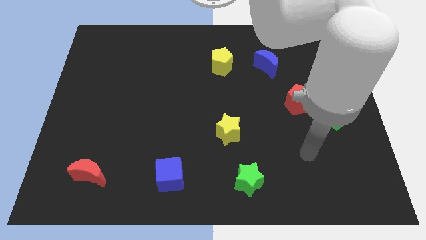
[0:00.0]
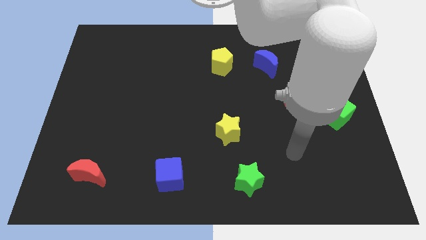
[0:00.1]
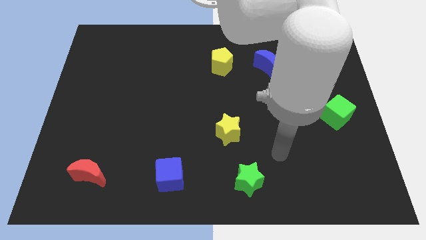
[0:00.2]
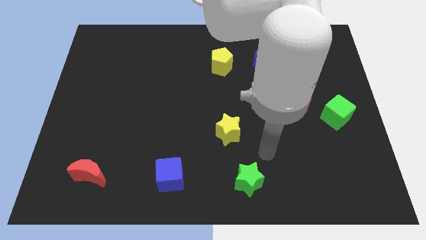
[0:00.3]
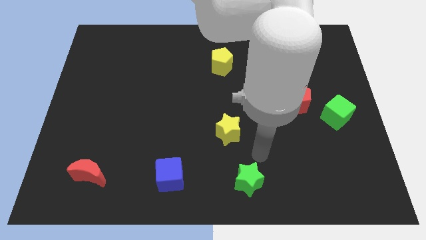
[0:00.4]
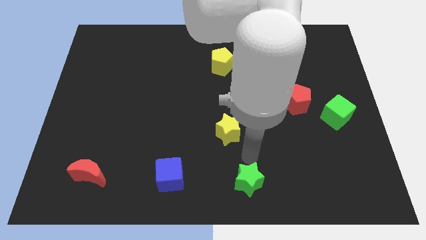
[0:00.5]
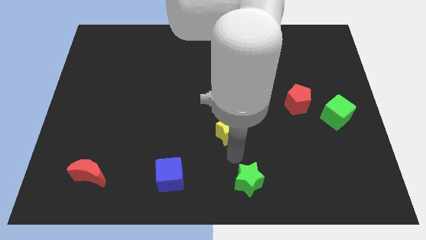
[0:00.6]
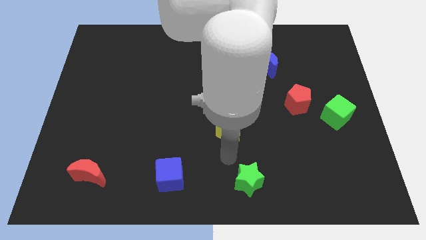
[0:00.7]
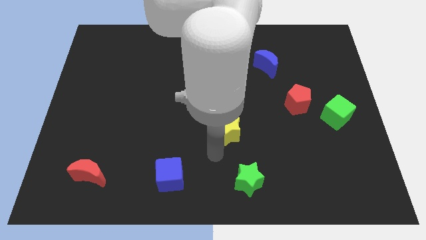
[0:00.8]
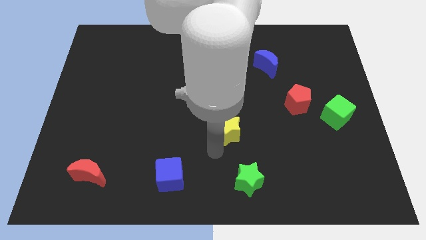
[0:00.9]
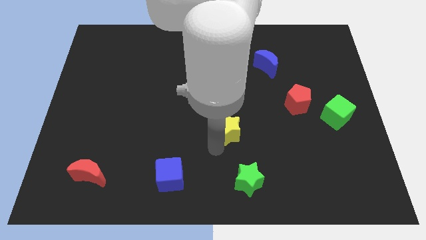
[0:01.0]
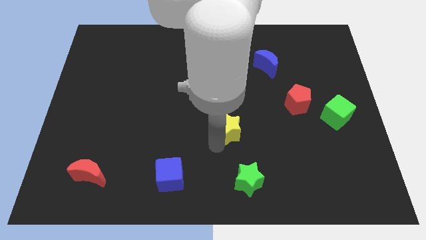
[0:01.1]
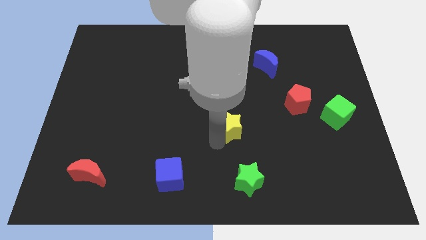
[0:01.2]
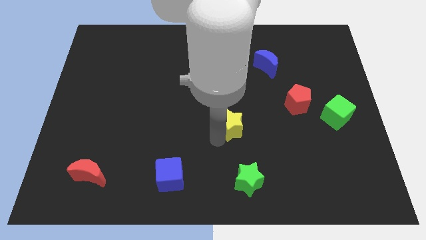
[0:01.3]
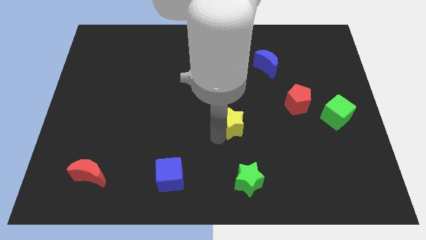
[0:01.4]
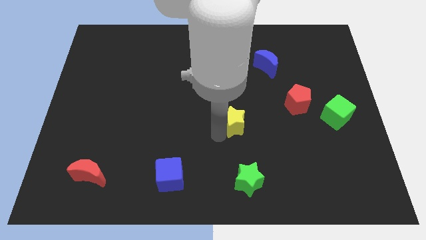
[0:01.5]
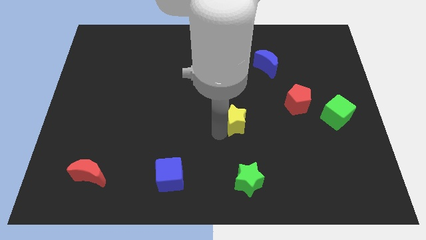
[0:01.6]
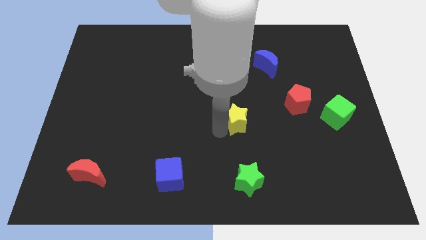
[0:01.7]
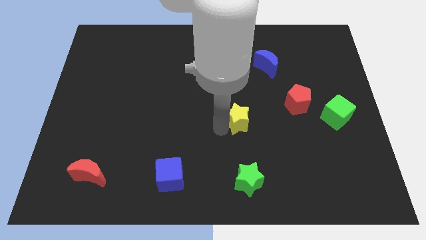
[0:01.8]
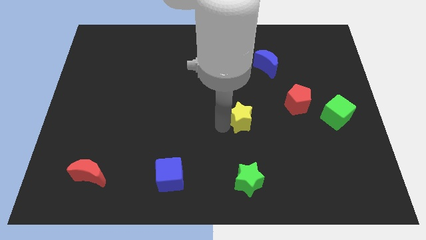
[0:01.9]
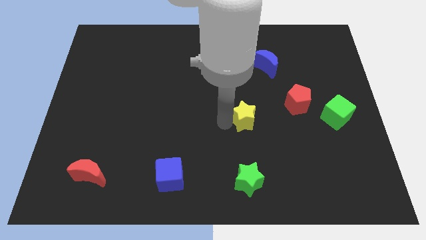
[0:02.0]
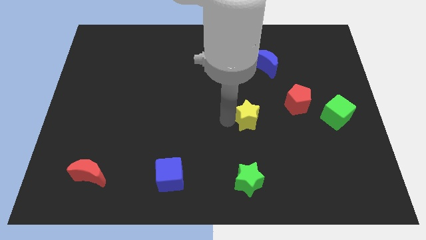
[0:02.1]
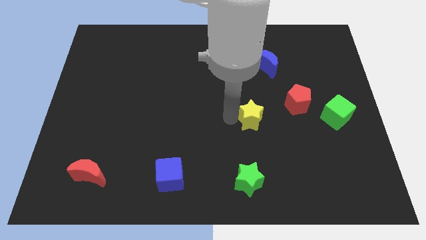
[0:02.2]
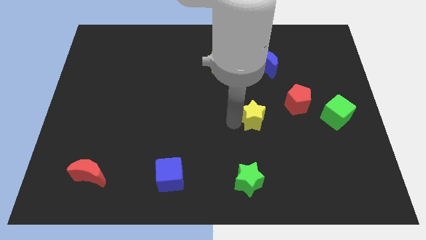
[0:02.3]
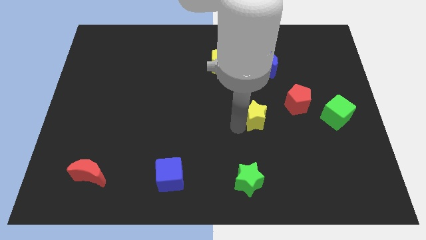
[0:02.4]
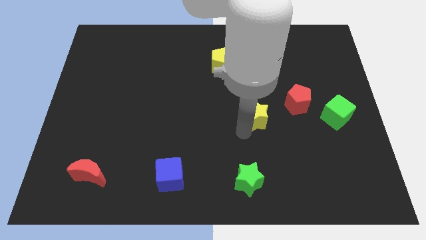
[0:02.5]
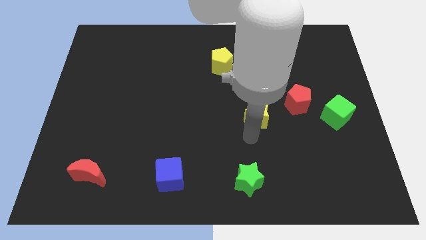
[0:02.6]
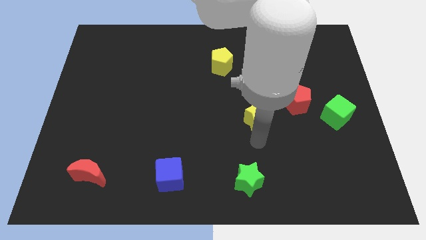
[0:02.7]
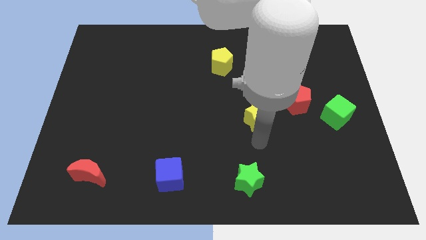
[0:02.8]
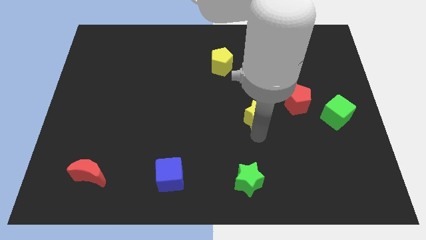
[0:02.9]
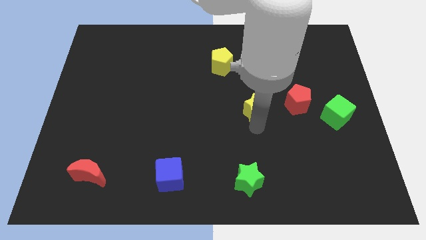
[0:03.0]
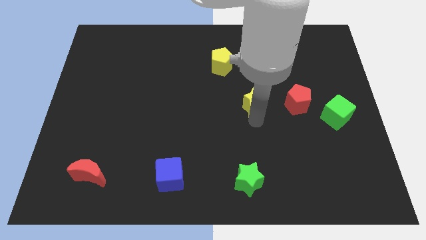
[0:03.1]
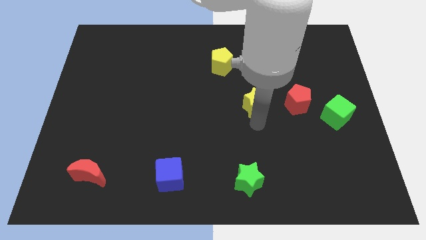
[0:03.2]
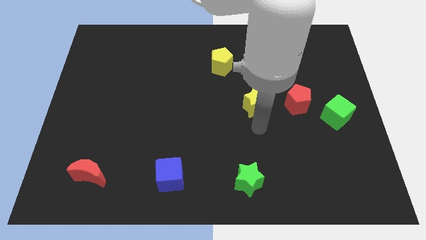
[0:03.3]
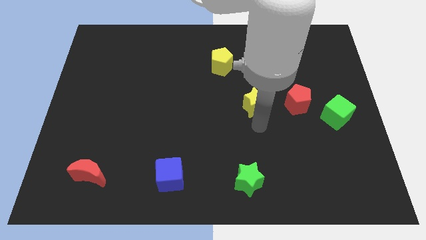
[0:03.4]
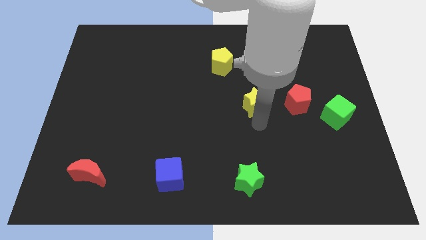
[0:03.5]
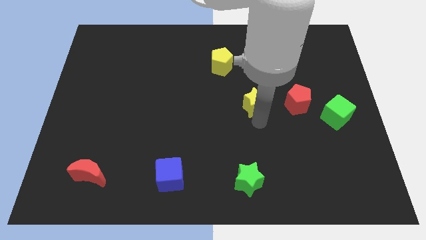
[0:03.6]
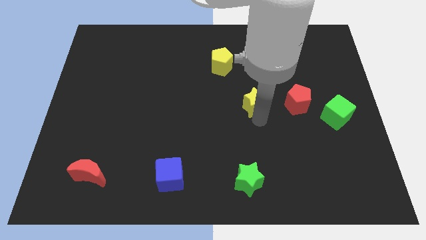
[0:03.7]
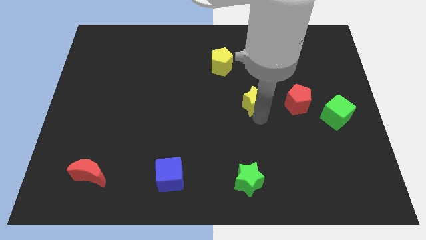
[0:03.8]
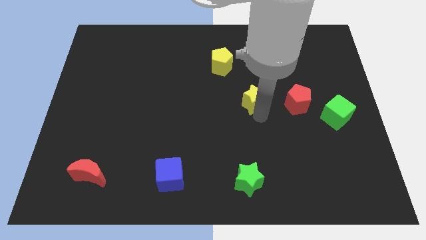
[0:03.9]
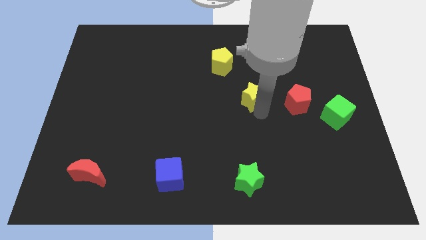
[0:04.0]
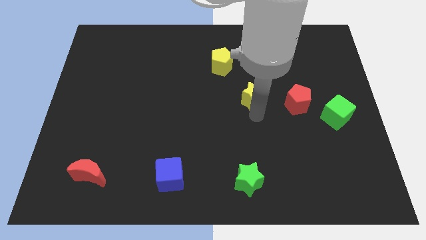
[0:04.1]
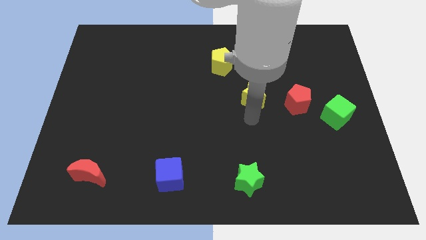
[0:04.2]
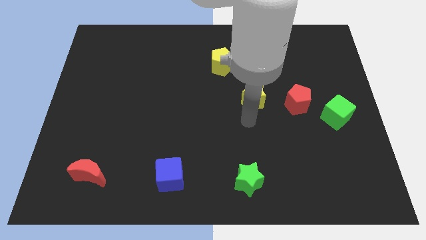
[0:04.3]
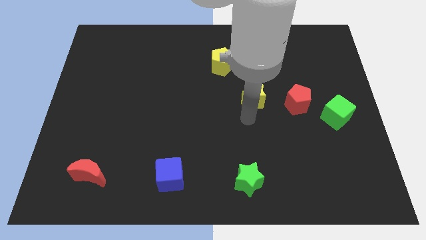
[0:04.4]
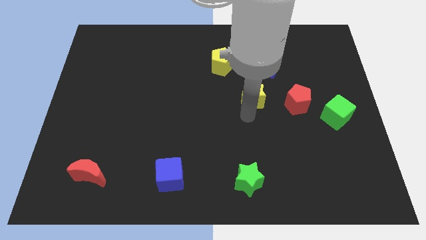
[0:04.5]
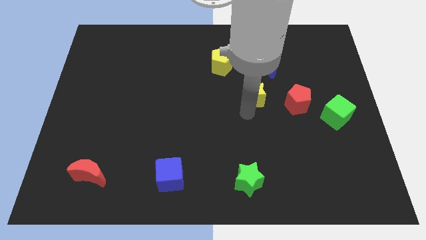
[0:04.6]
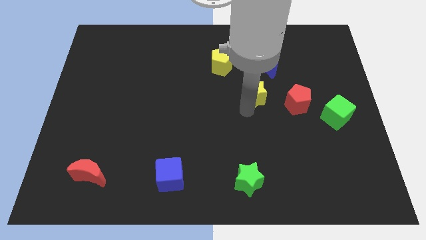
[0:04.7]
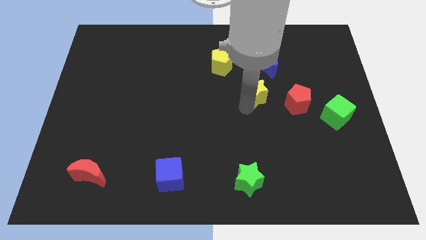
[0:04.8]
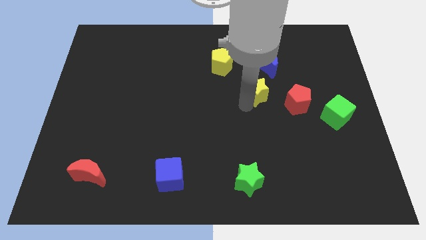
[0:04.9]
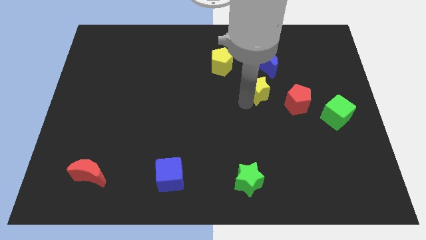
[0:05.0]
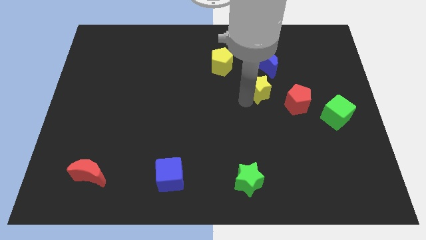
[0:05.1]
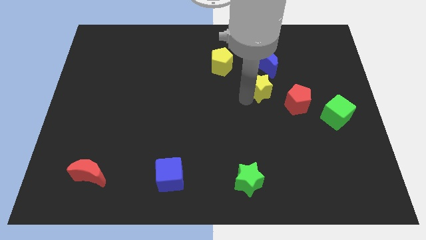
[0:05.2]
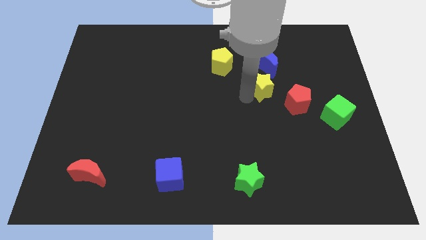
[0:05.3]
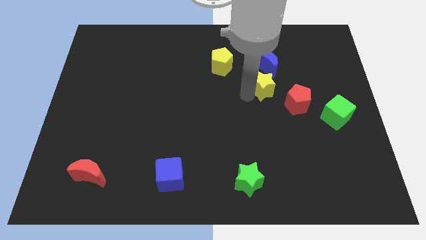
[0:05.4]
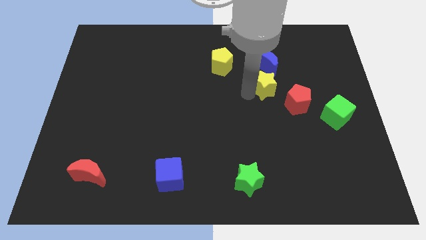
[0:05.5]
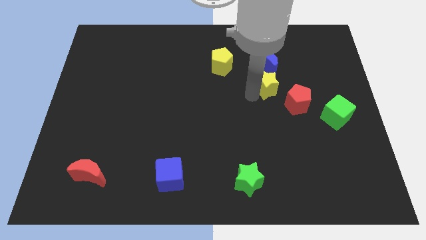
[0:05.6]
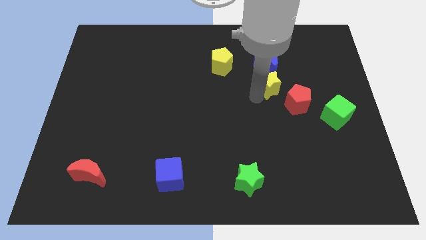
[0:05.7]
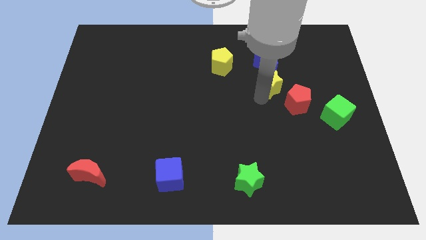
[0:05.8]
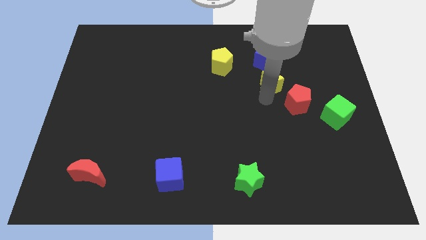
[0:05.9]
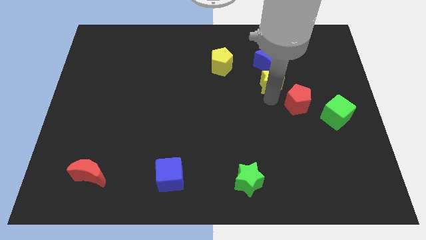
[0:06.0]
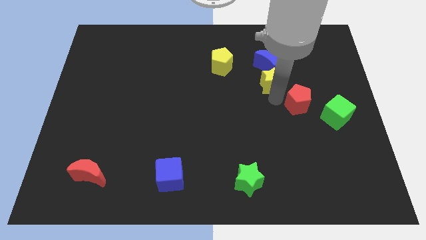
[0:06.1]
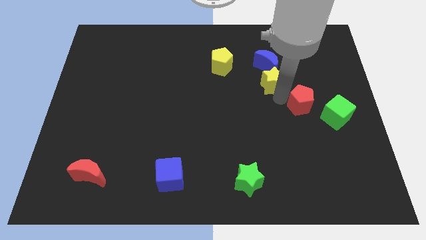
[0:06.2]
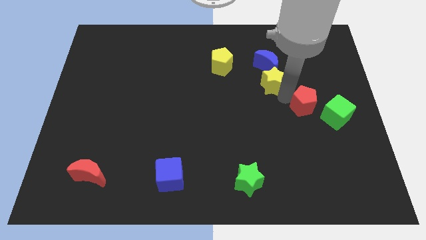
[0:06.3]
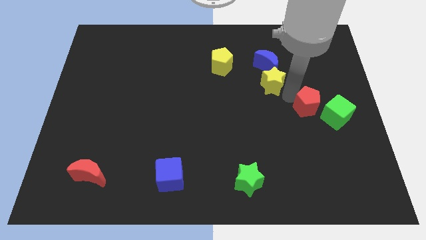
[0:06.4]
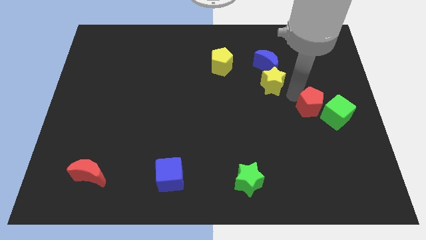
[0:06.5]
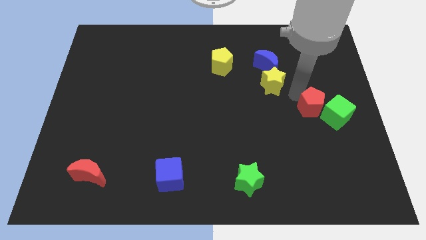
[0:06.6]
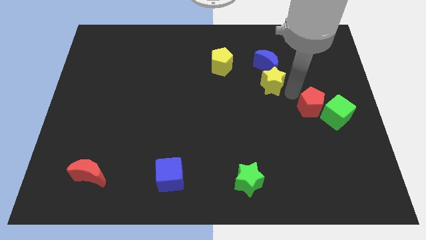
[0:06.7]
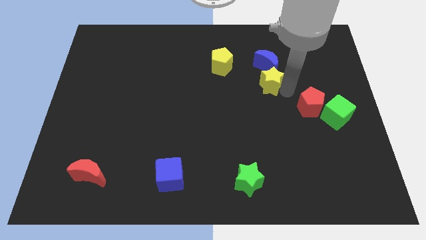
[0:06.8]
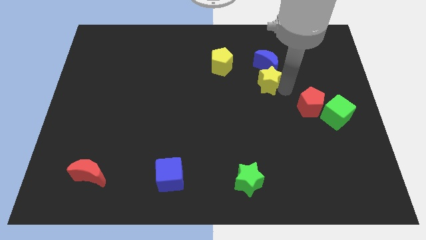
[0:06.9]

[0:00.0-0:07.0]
put the yellow star close to the blue moon

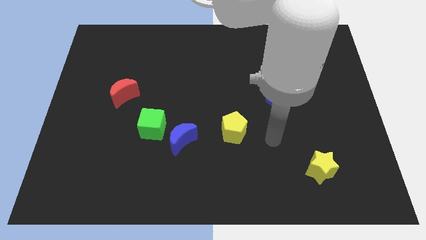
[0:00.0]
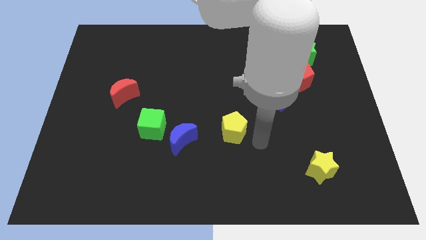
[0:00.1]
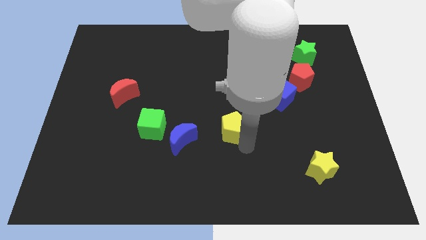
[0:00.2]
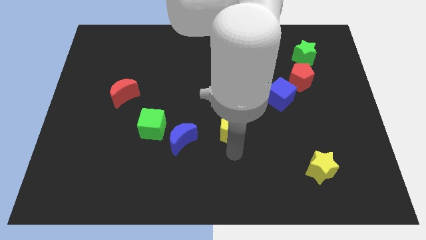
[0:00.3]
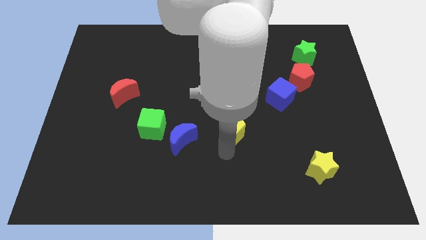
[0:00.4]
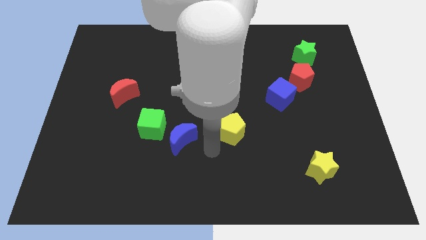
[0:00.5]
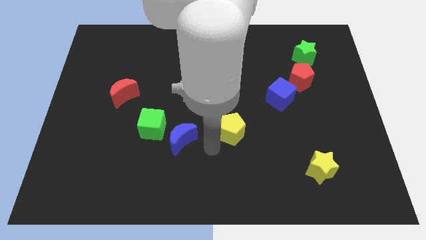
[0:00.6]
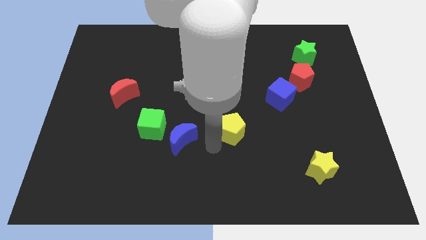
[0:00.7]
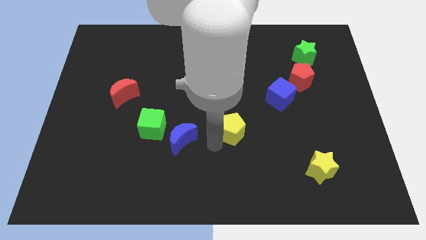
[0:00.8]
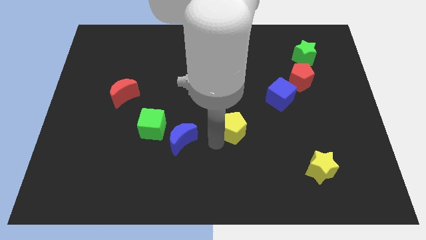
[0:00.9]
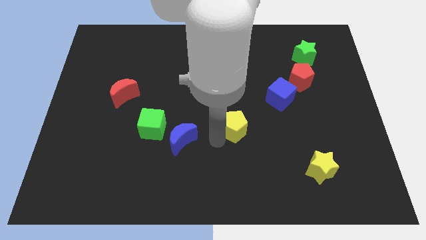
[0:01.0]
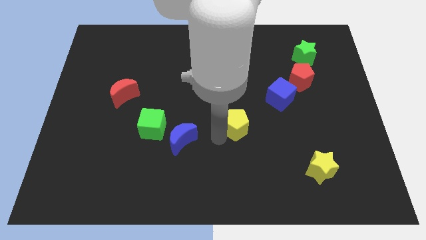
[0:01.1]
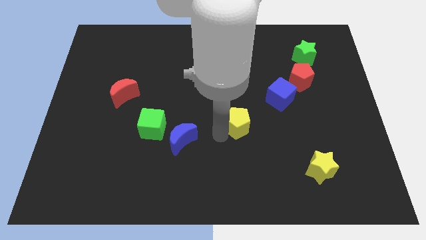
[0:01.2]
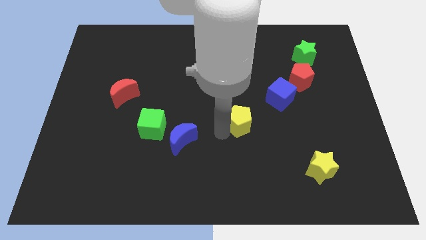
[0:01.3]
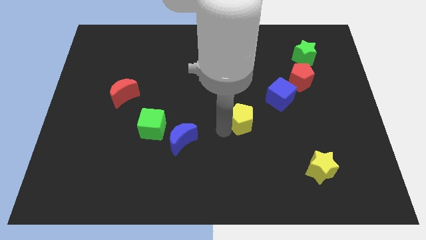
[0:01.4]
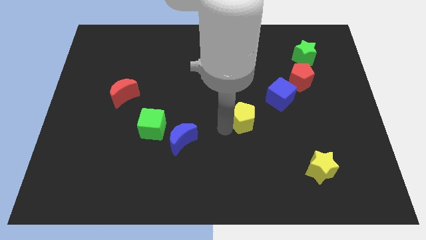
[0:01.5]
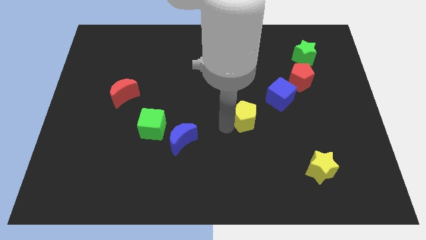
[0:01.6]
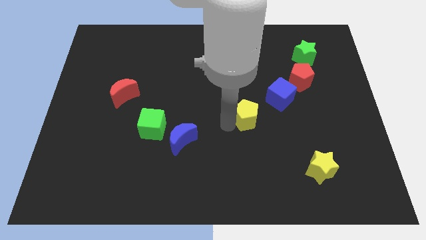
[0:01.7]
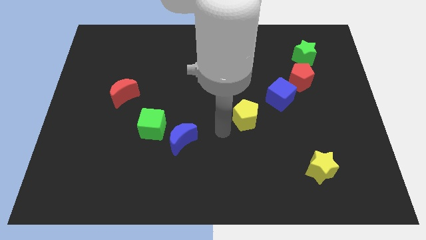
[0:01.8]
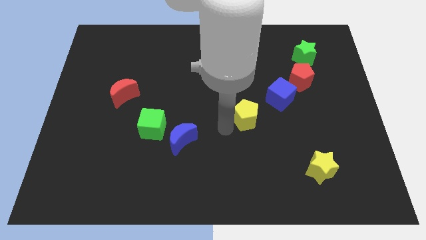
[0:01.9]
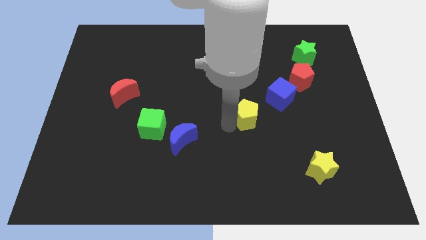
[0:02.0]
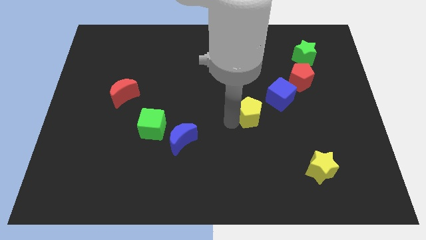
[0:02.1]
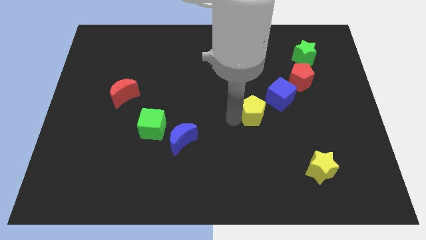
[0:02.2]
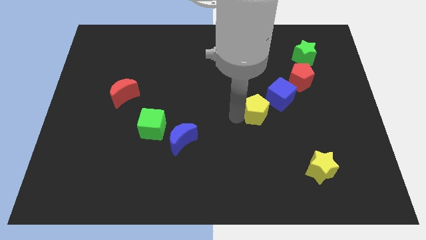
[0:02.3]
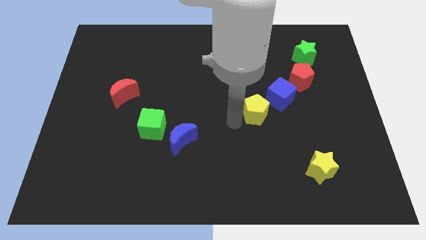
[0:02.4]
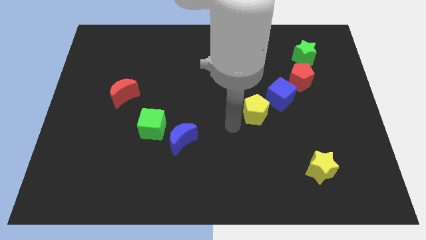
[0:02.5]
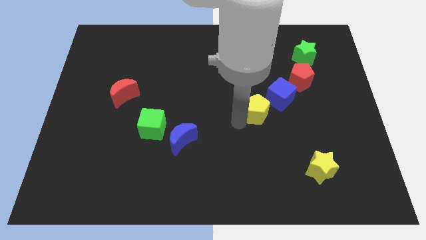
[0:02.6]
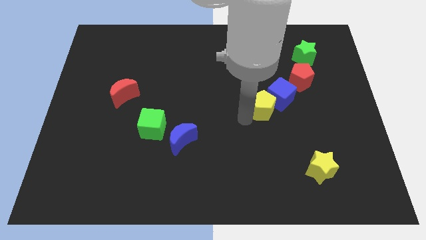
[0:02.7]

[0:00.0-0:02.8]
slide the yellow pentagon close to the blue cube
